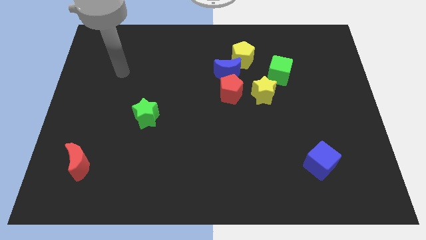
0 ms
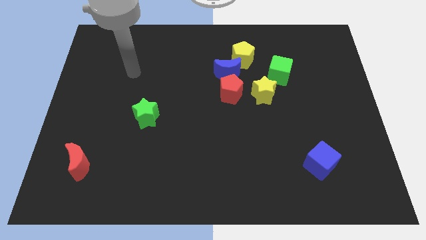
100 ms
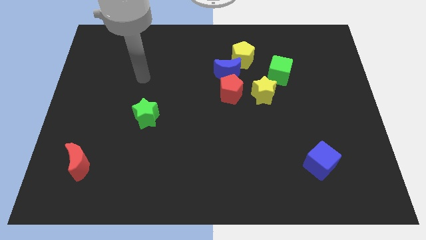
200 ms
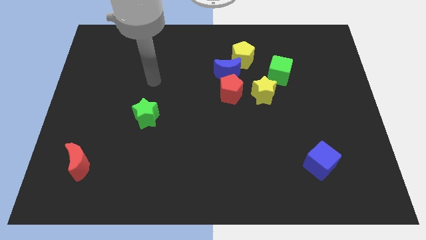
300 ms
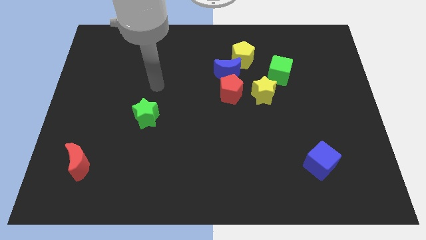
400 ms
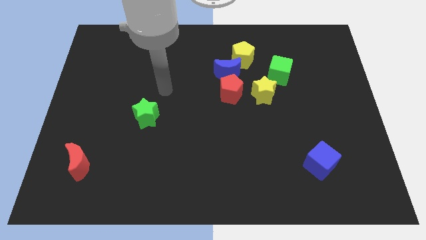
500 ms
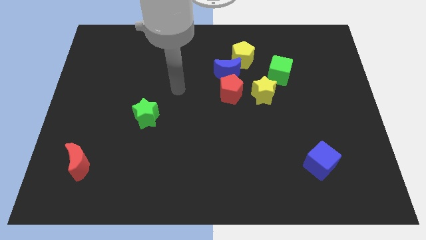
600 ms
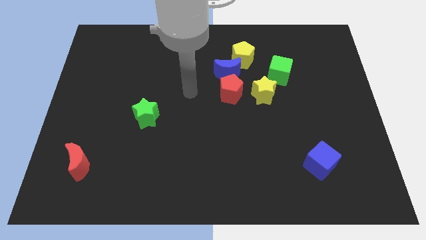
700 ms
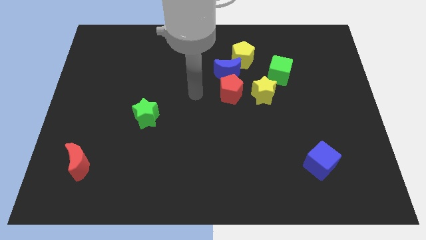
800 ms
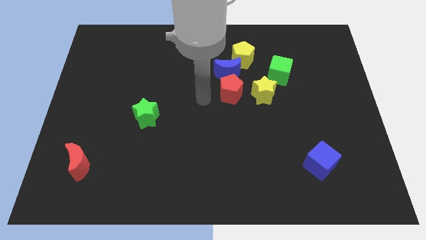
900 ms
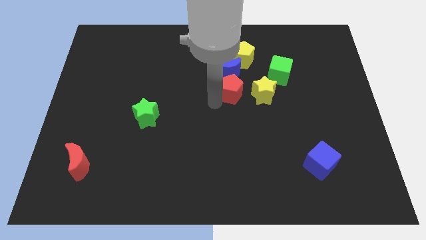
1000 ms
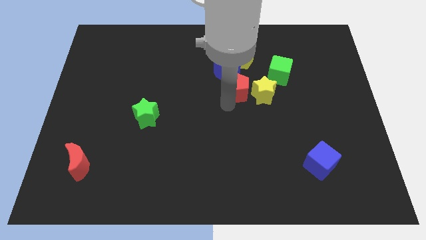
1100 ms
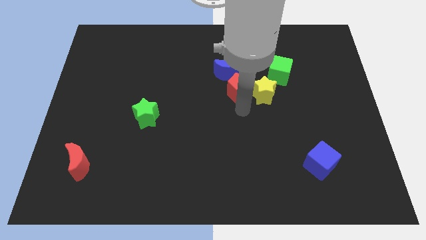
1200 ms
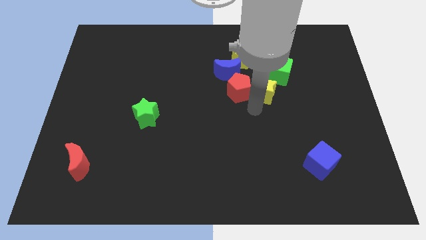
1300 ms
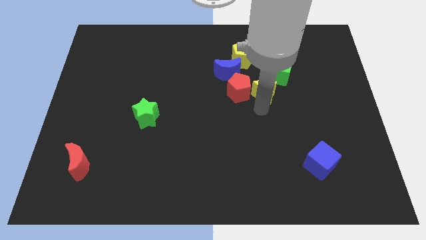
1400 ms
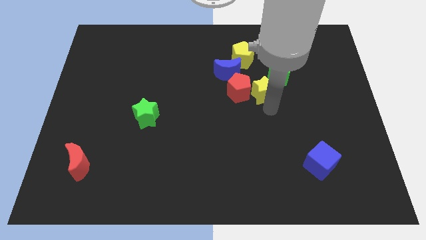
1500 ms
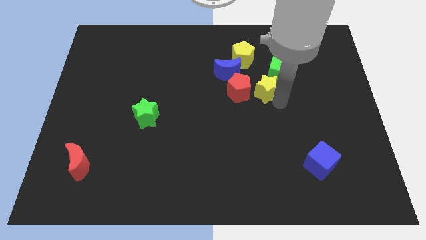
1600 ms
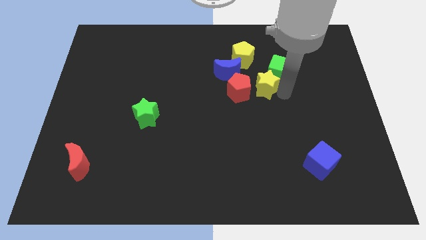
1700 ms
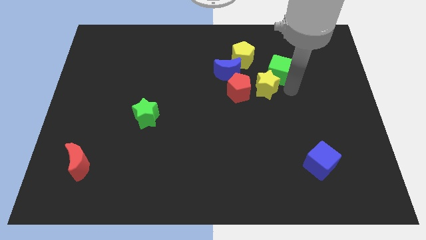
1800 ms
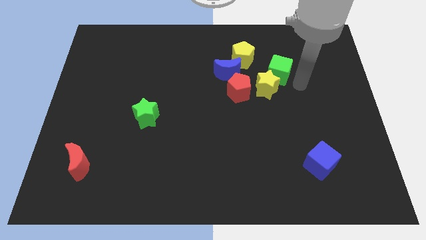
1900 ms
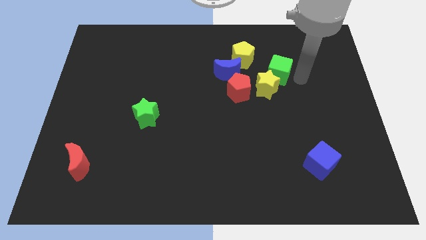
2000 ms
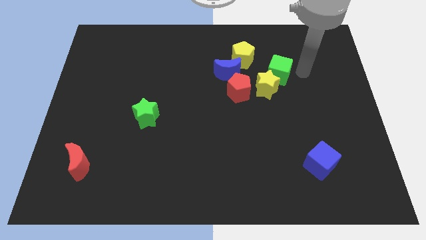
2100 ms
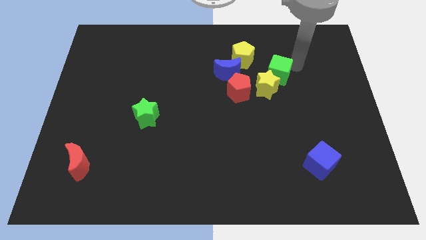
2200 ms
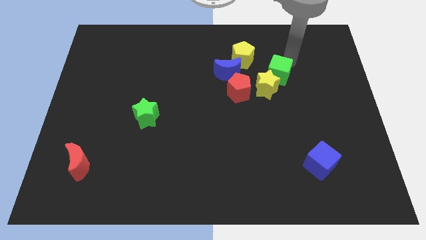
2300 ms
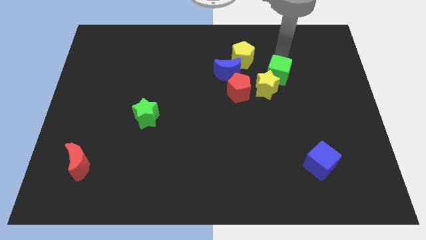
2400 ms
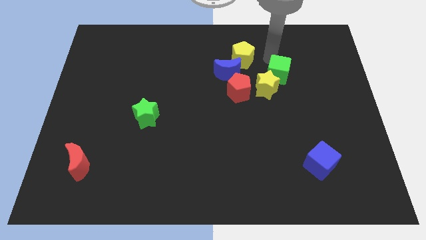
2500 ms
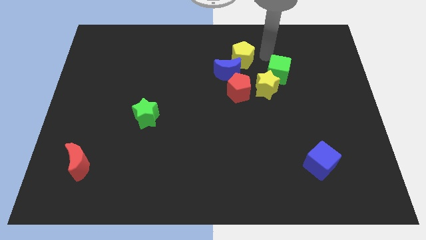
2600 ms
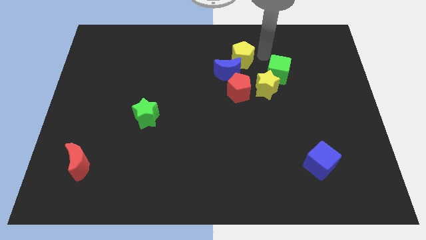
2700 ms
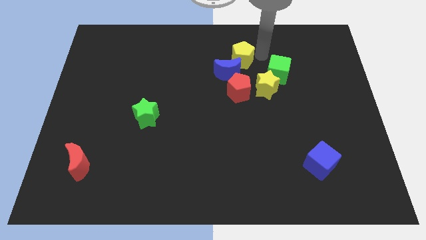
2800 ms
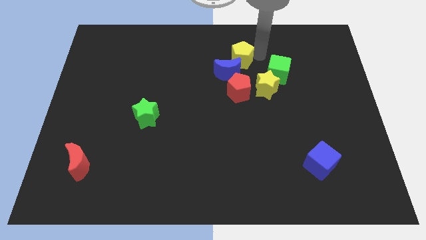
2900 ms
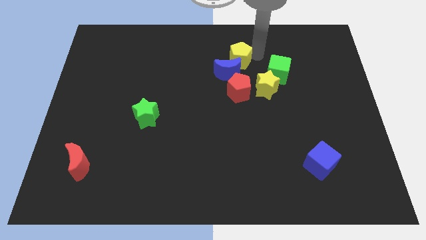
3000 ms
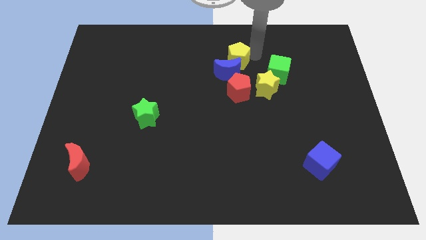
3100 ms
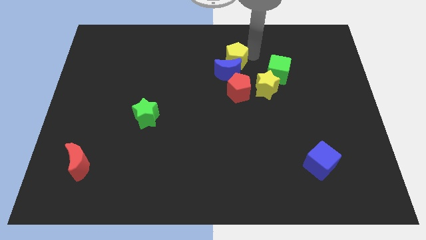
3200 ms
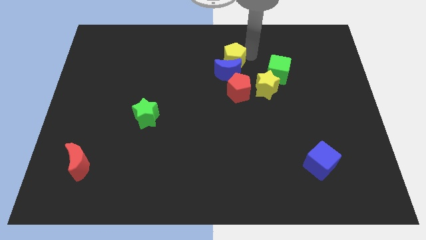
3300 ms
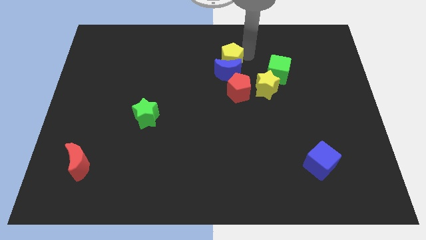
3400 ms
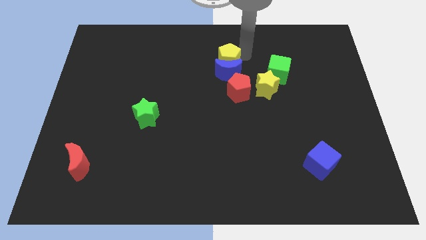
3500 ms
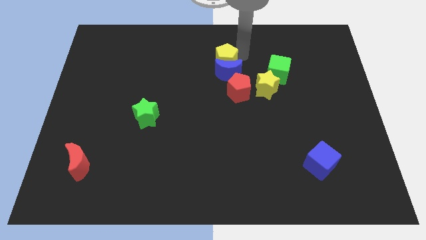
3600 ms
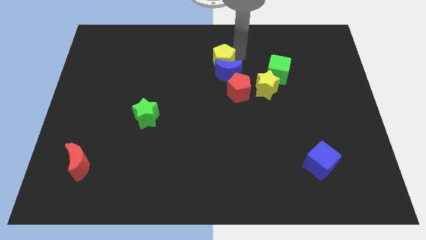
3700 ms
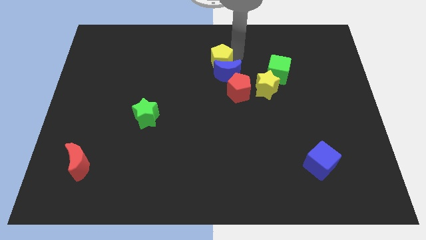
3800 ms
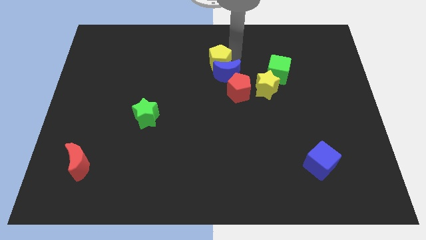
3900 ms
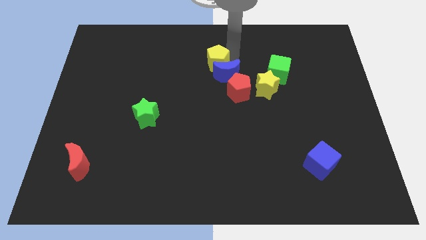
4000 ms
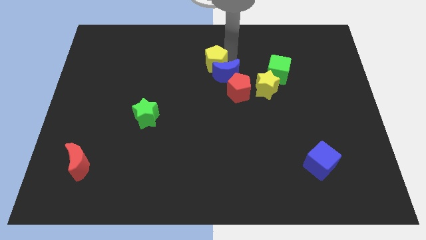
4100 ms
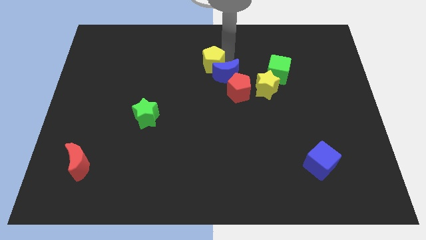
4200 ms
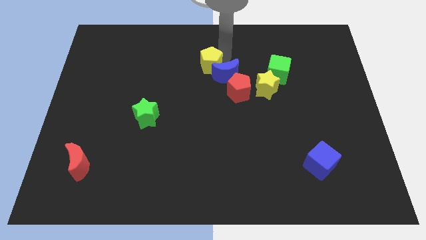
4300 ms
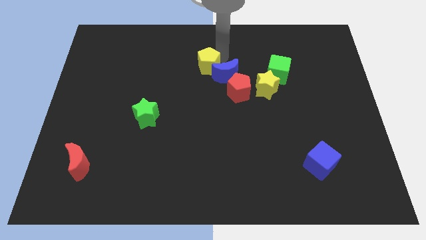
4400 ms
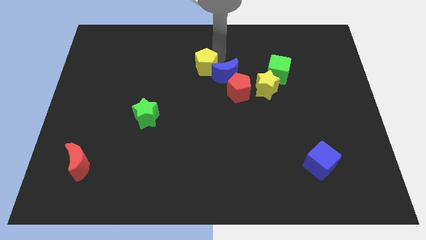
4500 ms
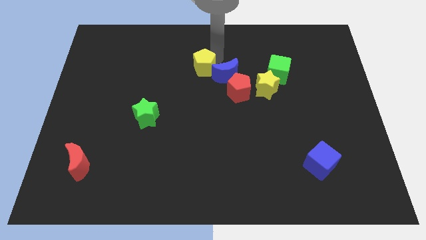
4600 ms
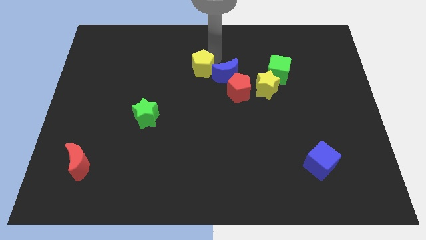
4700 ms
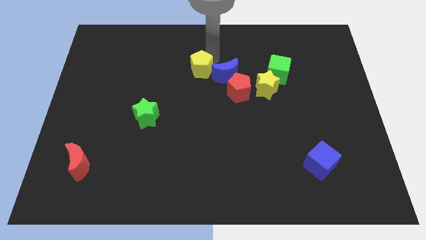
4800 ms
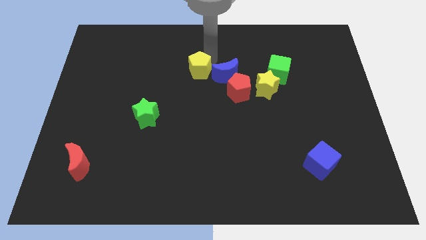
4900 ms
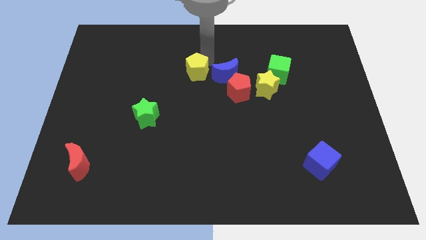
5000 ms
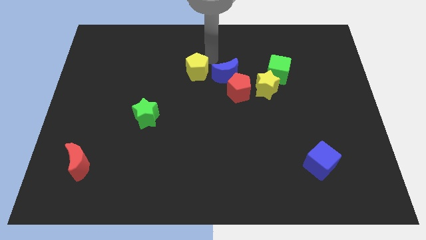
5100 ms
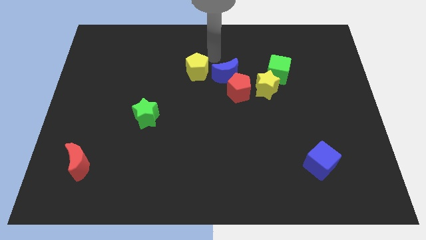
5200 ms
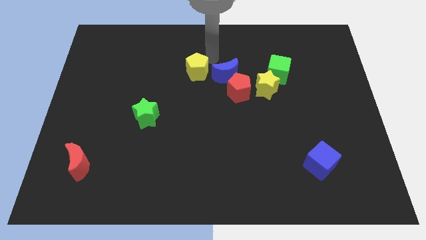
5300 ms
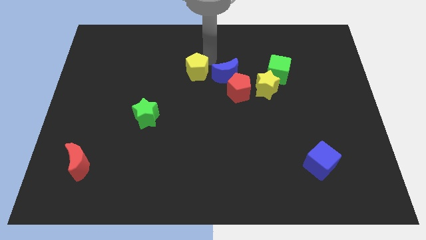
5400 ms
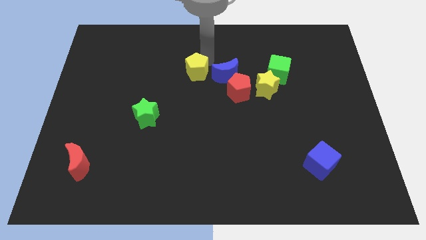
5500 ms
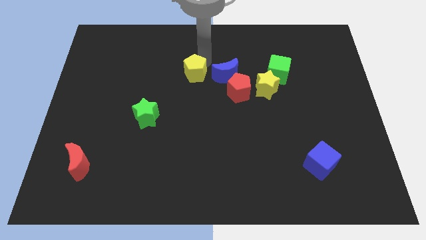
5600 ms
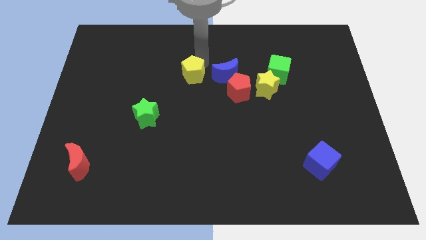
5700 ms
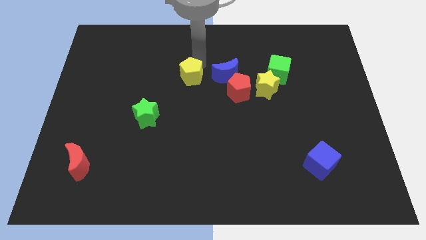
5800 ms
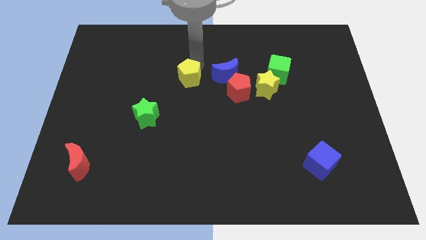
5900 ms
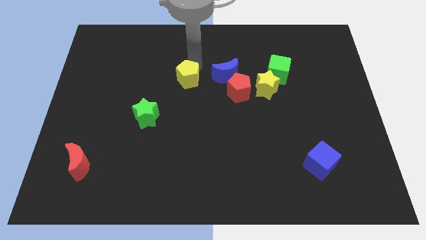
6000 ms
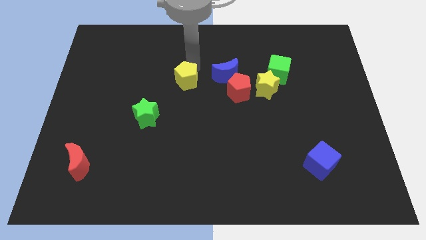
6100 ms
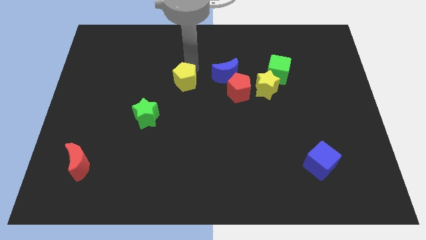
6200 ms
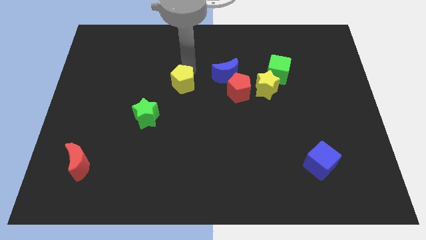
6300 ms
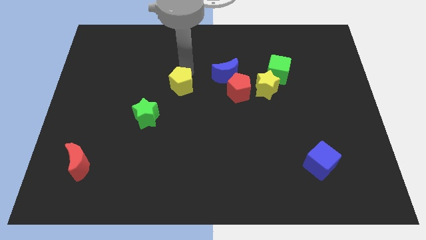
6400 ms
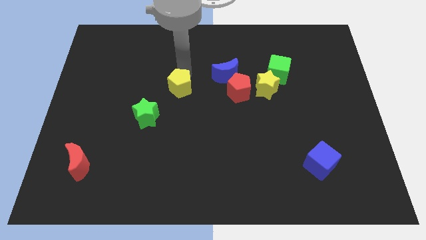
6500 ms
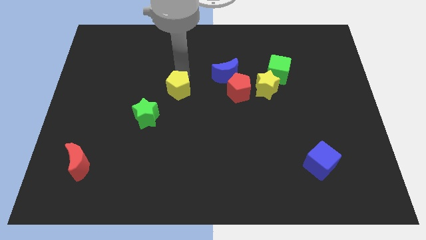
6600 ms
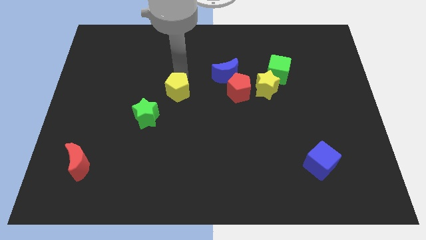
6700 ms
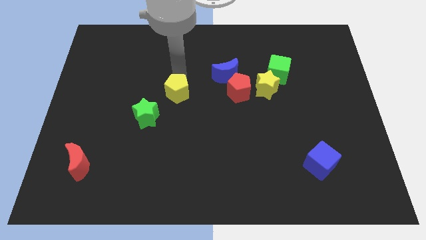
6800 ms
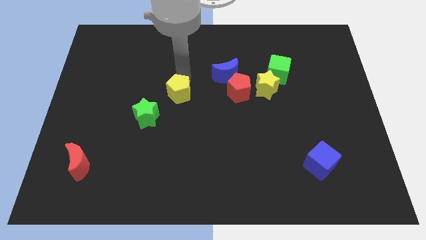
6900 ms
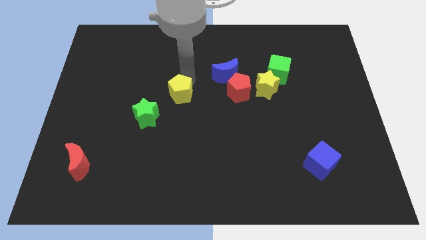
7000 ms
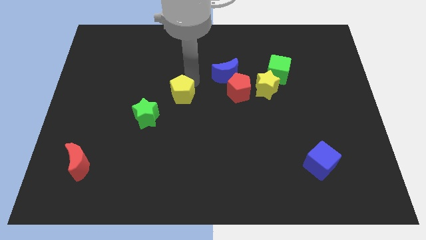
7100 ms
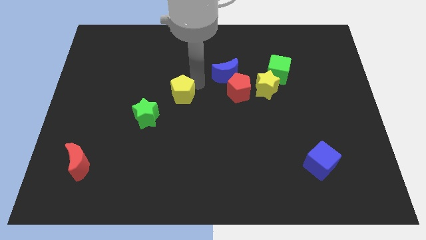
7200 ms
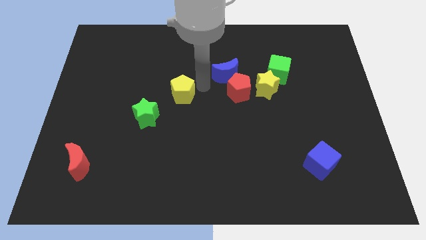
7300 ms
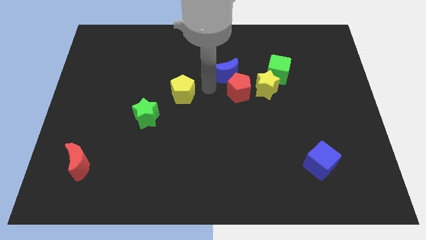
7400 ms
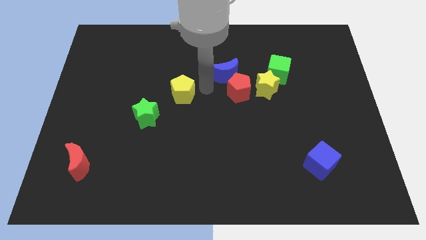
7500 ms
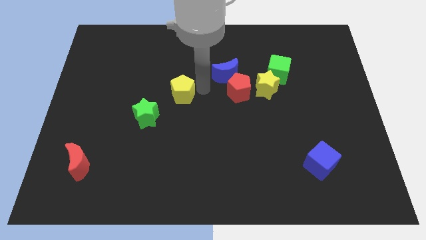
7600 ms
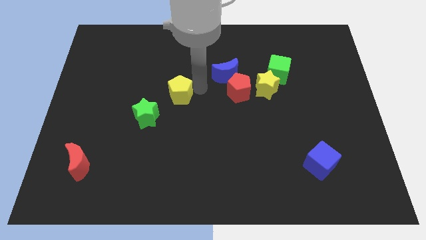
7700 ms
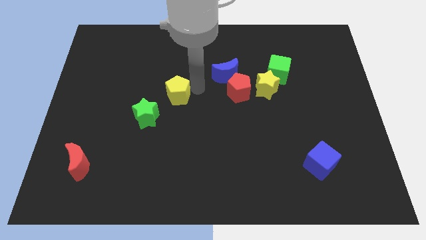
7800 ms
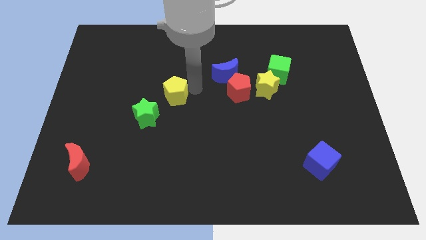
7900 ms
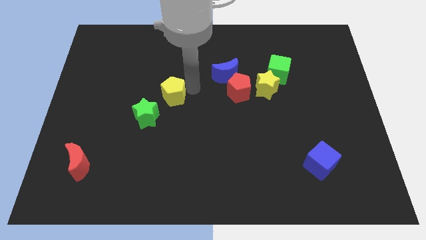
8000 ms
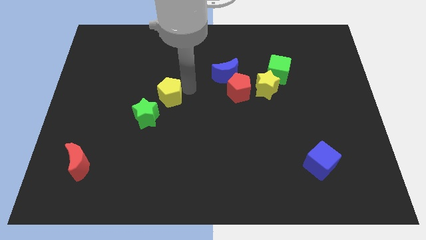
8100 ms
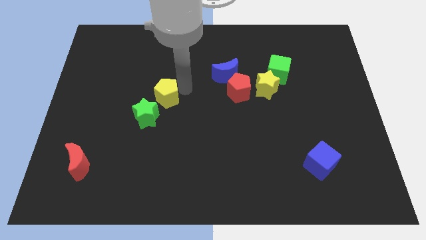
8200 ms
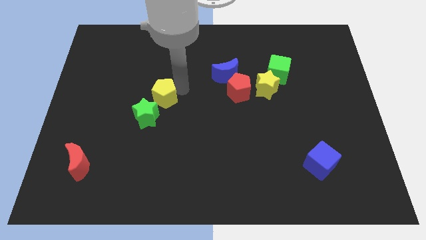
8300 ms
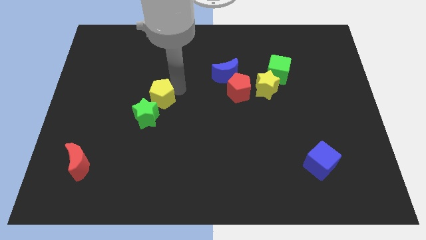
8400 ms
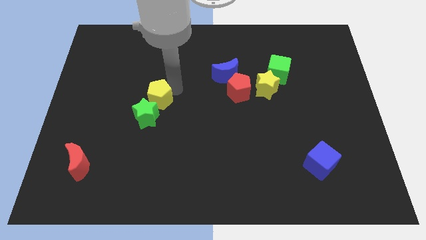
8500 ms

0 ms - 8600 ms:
slide the yellow pentagon close to the green star
